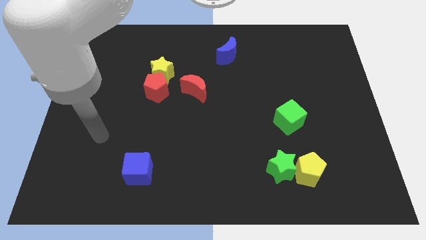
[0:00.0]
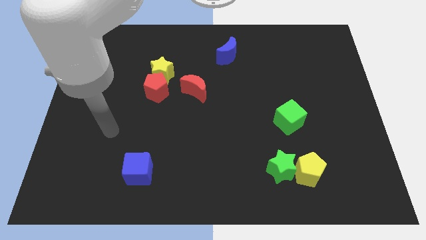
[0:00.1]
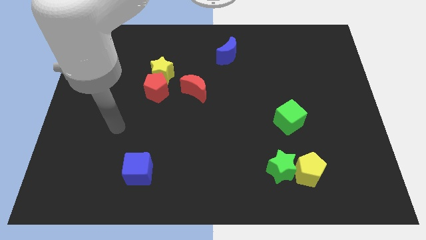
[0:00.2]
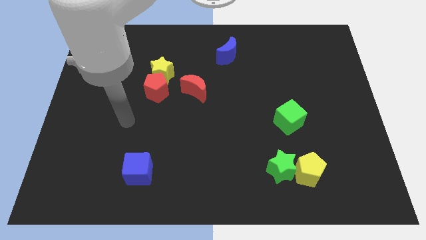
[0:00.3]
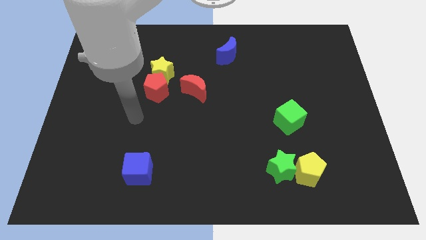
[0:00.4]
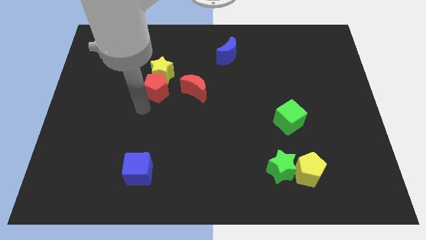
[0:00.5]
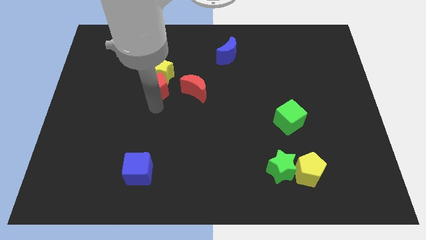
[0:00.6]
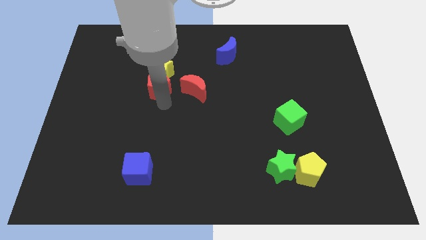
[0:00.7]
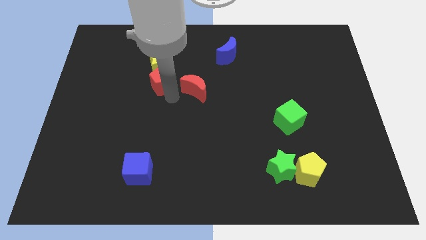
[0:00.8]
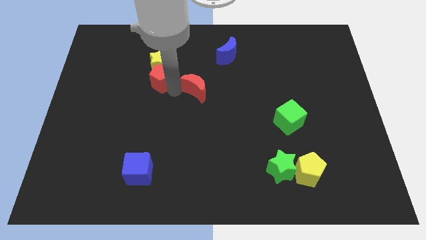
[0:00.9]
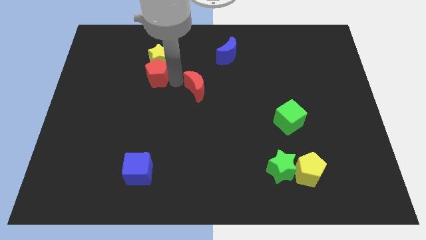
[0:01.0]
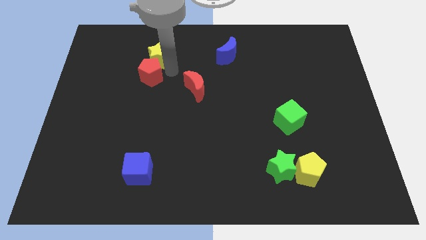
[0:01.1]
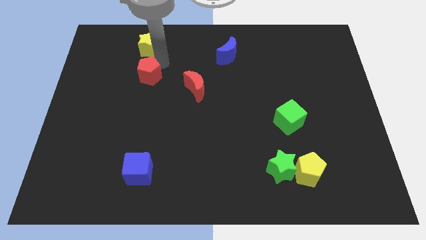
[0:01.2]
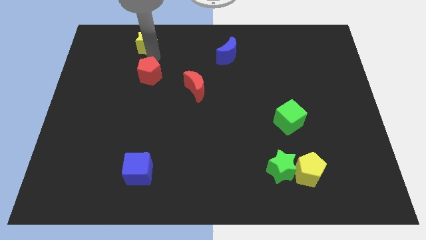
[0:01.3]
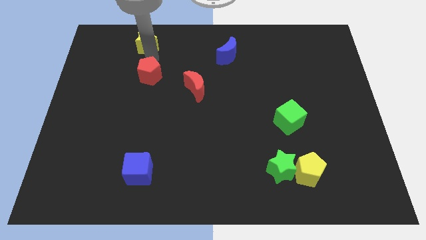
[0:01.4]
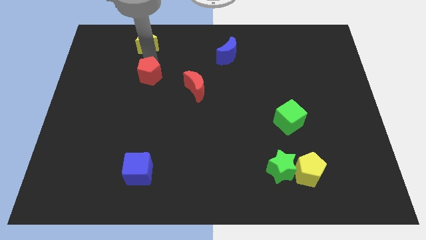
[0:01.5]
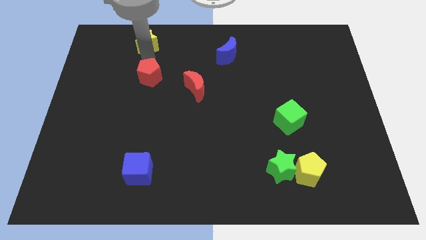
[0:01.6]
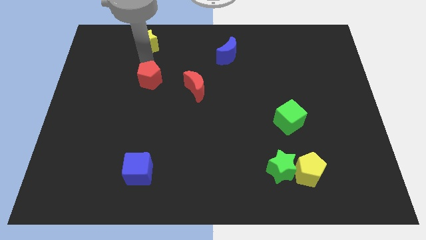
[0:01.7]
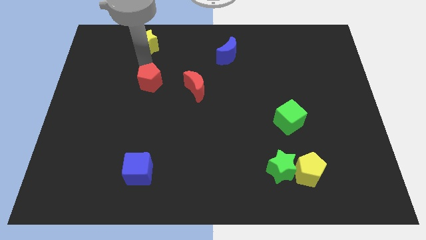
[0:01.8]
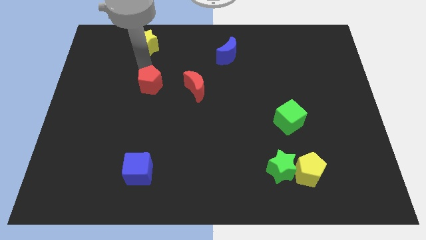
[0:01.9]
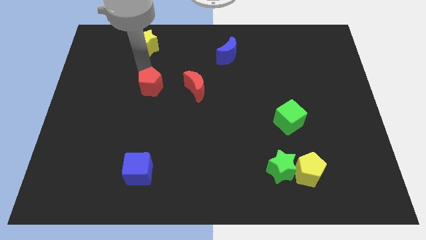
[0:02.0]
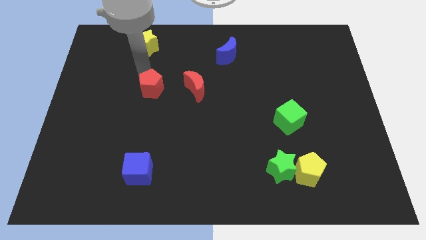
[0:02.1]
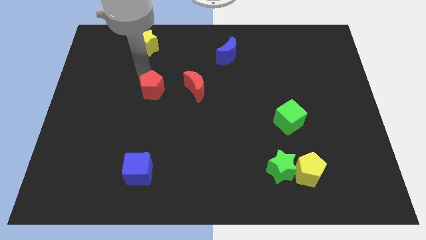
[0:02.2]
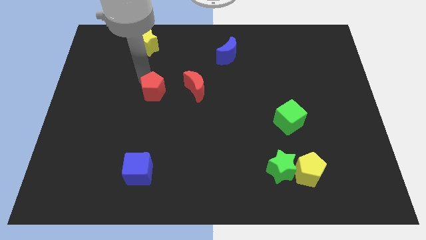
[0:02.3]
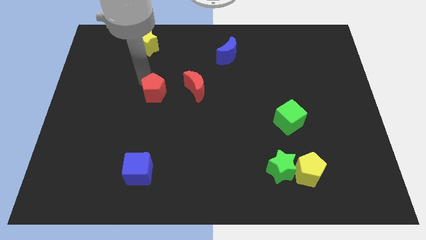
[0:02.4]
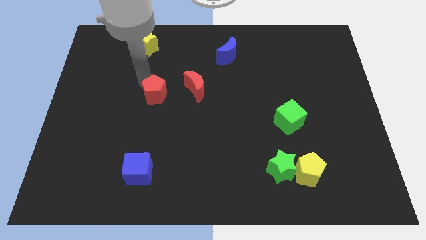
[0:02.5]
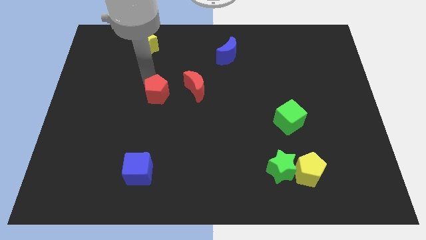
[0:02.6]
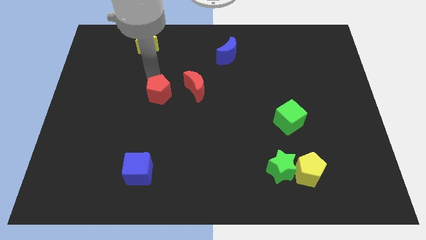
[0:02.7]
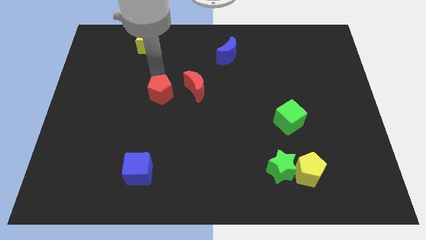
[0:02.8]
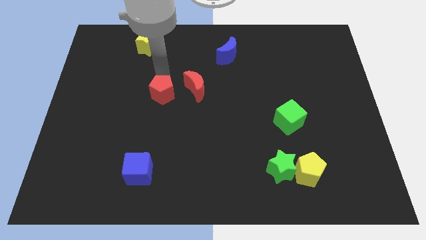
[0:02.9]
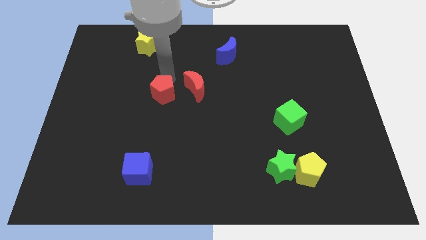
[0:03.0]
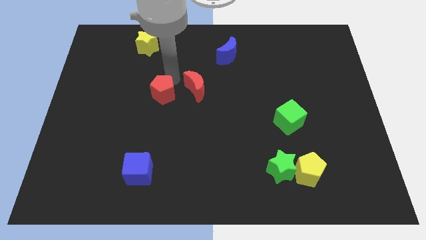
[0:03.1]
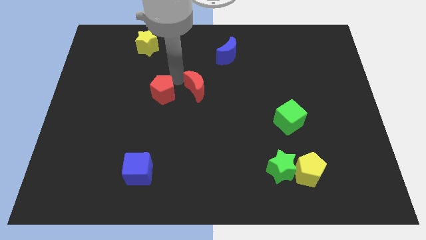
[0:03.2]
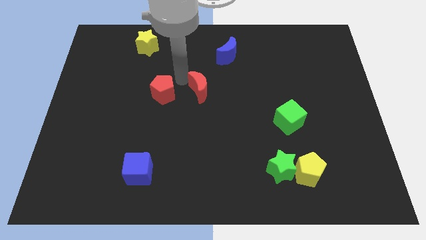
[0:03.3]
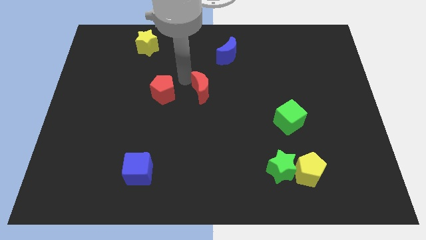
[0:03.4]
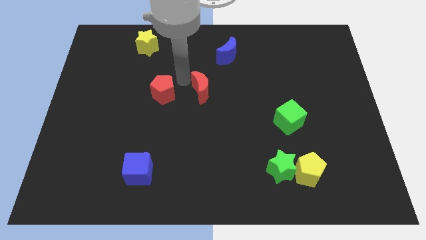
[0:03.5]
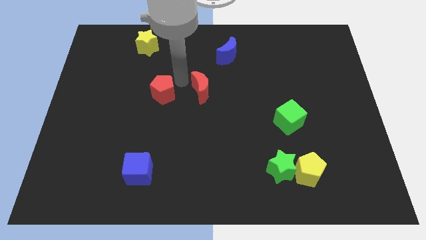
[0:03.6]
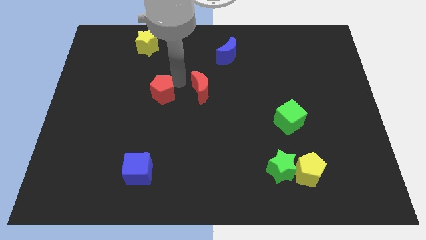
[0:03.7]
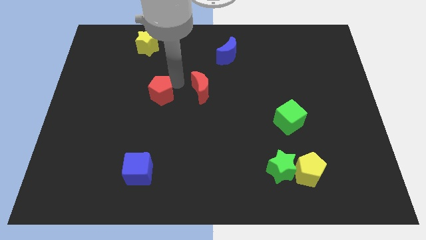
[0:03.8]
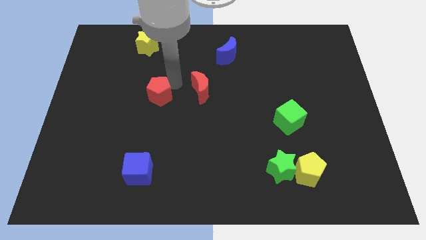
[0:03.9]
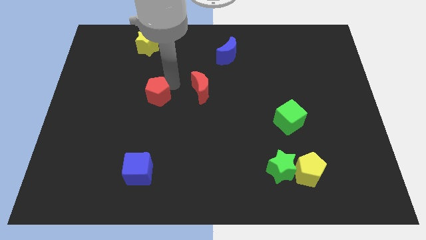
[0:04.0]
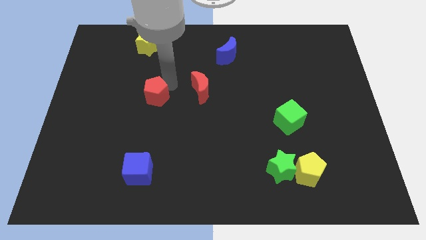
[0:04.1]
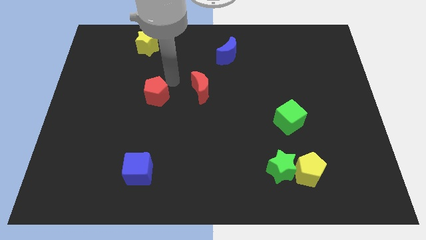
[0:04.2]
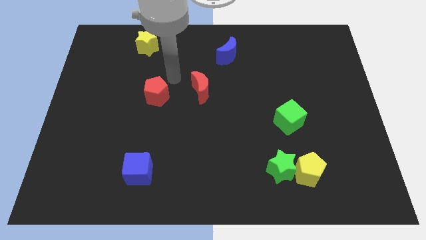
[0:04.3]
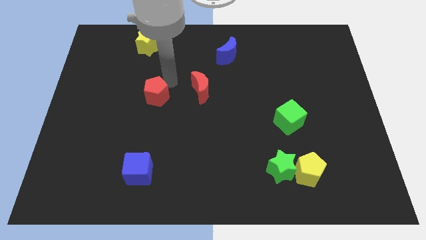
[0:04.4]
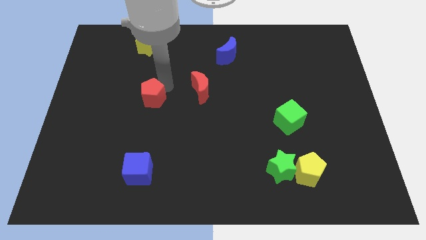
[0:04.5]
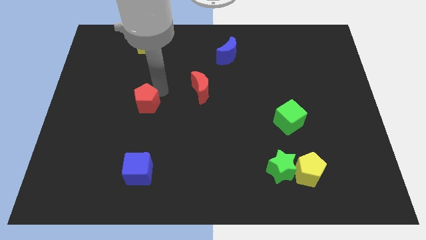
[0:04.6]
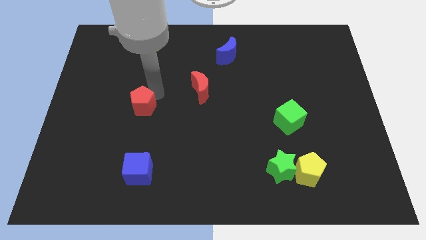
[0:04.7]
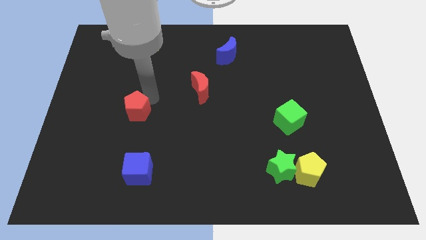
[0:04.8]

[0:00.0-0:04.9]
slightly slide the red pentagon down and to the left

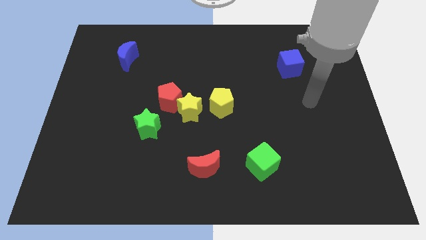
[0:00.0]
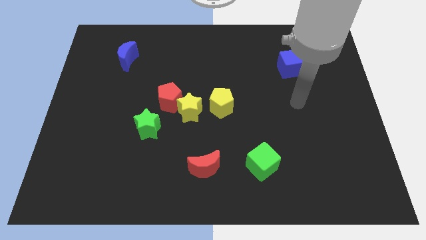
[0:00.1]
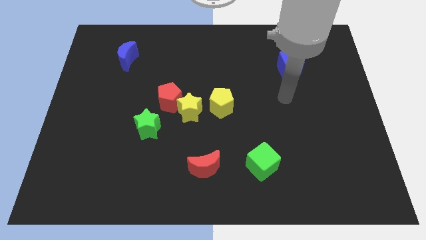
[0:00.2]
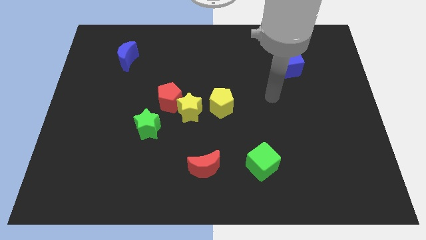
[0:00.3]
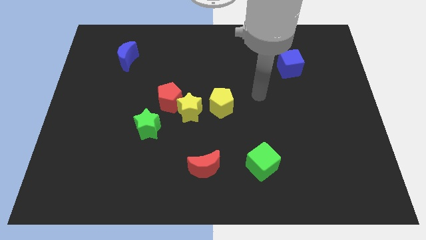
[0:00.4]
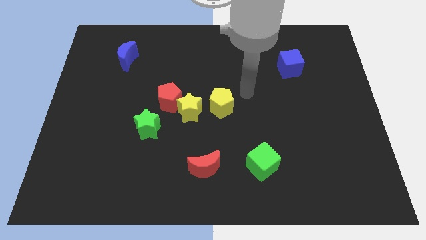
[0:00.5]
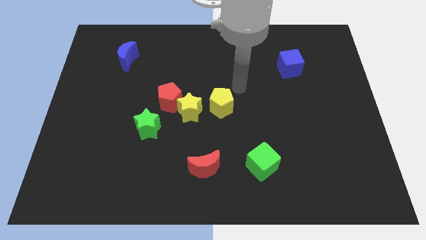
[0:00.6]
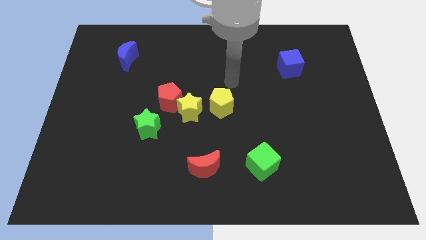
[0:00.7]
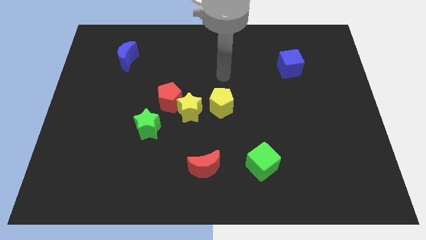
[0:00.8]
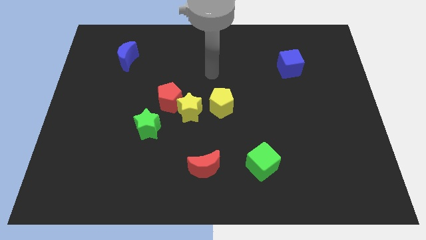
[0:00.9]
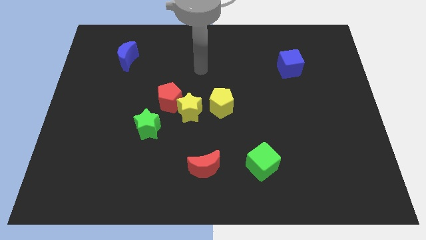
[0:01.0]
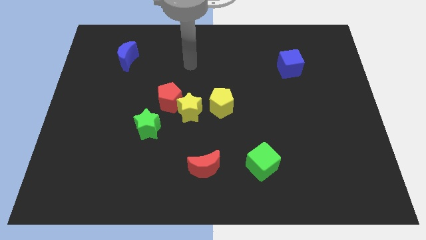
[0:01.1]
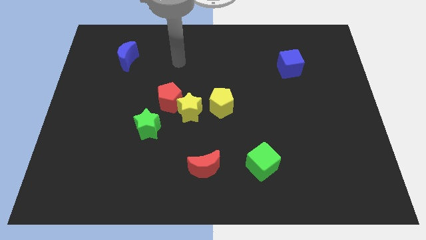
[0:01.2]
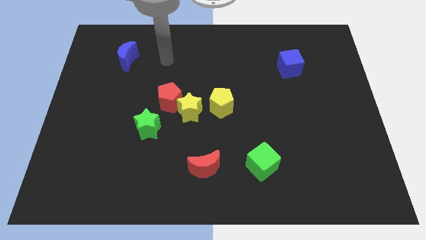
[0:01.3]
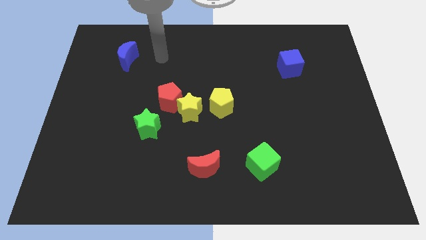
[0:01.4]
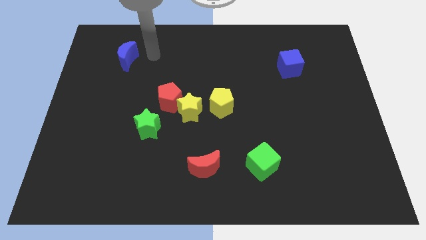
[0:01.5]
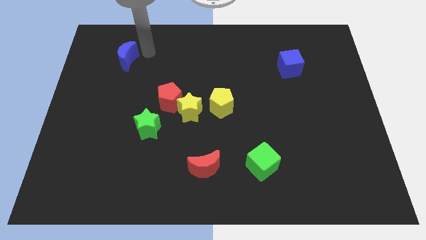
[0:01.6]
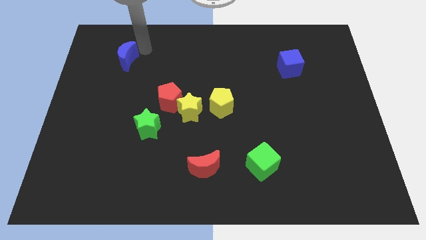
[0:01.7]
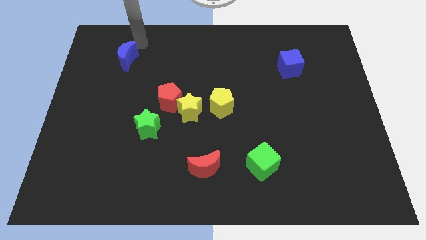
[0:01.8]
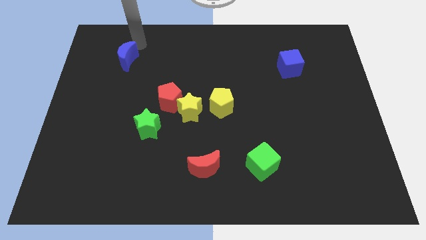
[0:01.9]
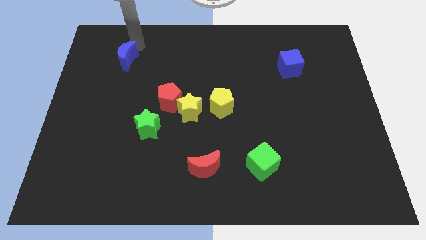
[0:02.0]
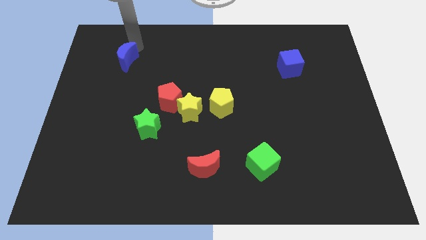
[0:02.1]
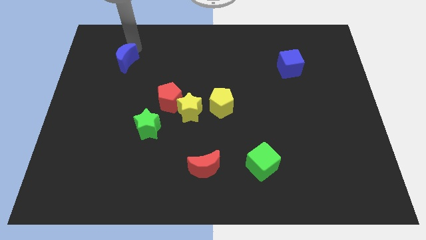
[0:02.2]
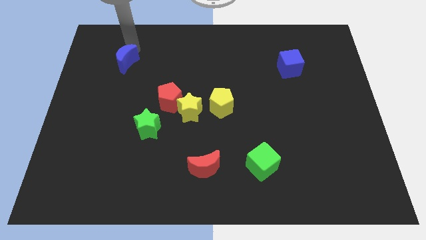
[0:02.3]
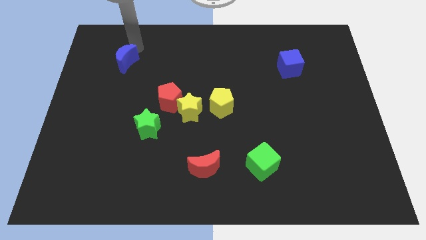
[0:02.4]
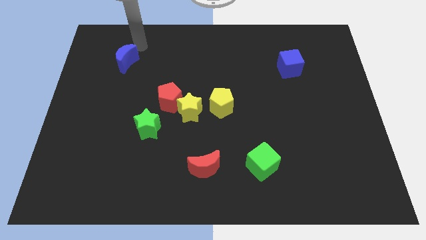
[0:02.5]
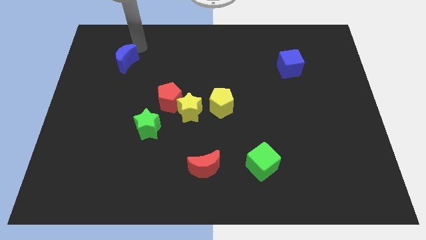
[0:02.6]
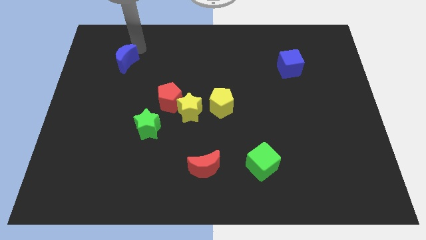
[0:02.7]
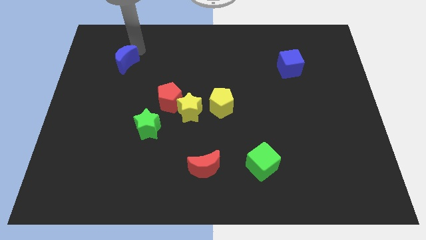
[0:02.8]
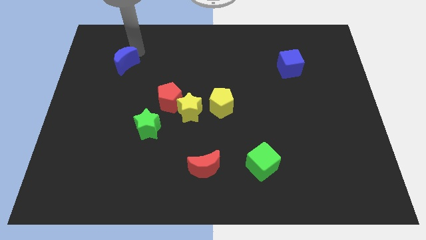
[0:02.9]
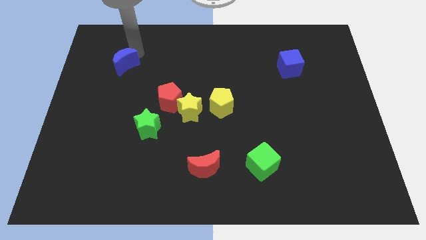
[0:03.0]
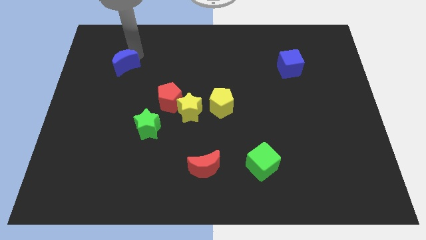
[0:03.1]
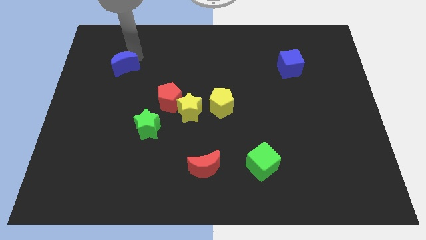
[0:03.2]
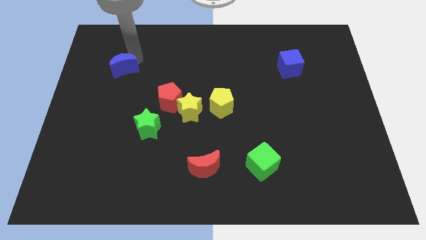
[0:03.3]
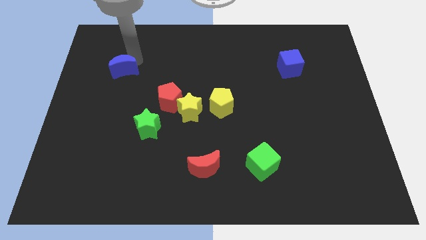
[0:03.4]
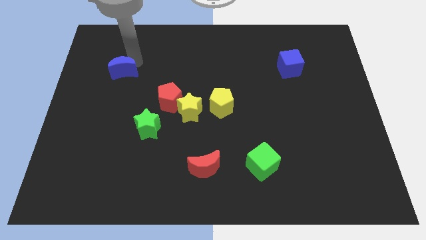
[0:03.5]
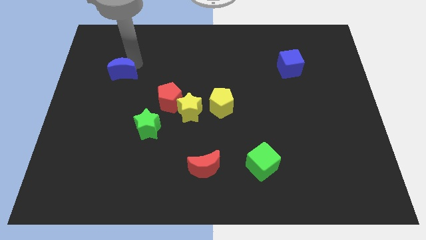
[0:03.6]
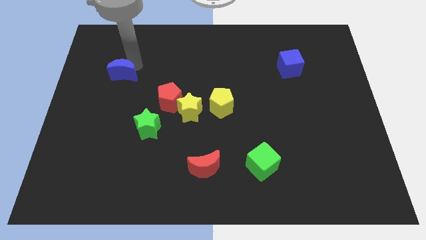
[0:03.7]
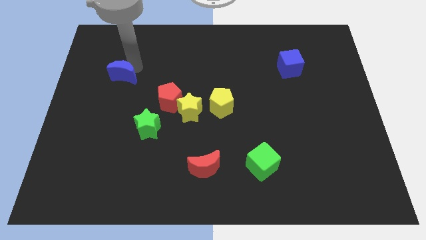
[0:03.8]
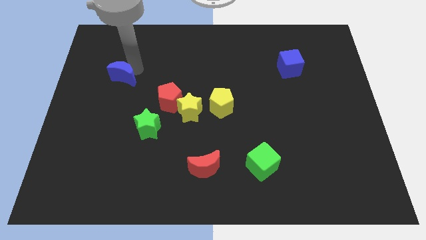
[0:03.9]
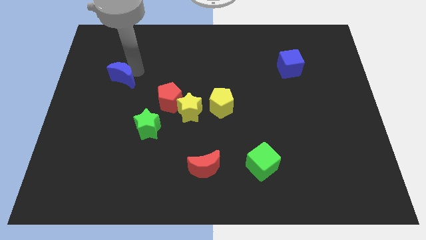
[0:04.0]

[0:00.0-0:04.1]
slide the blue moon a little down
